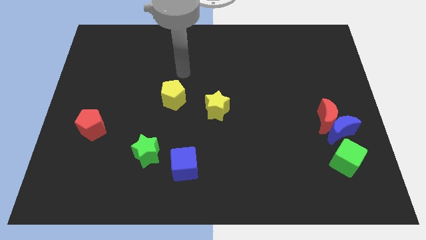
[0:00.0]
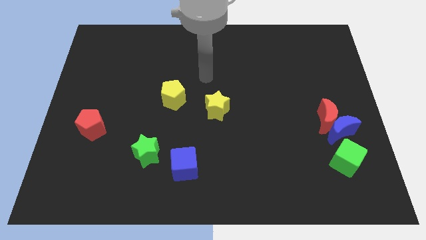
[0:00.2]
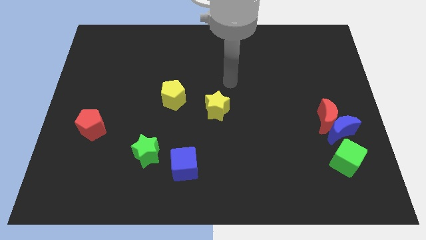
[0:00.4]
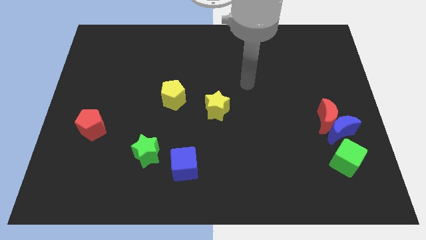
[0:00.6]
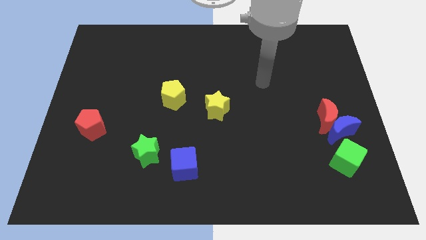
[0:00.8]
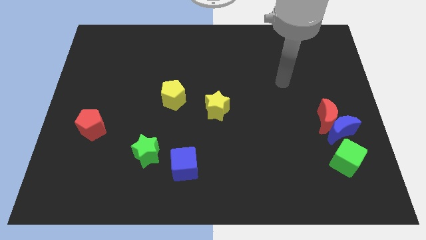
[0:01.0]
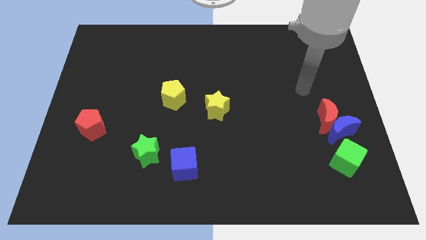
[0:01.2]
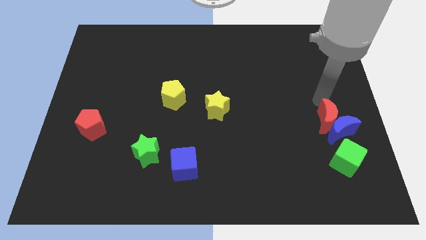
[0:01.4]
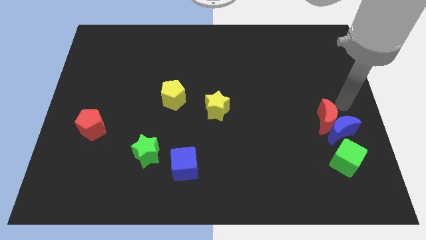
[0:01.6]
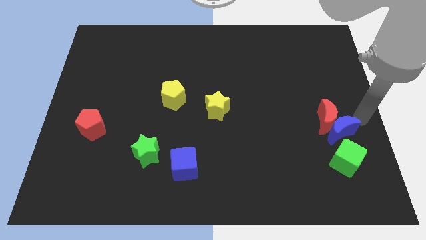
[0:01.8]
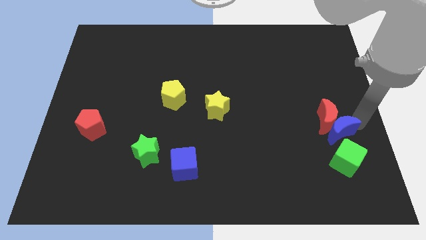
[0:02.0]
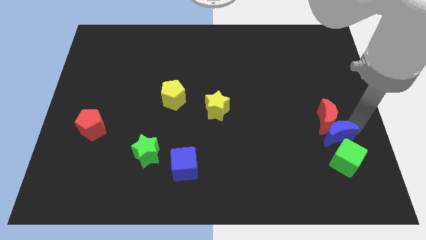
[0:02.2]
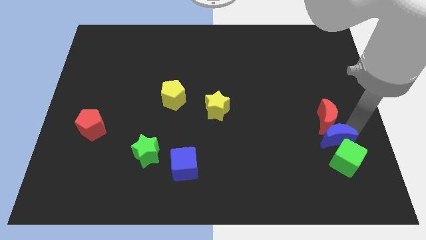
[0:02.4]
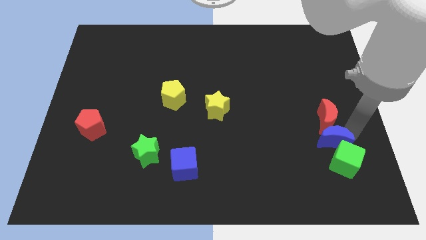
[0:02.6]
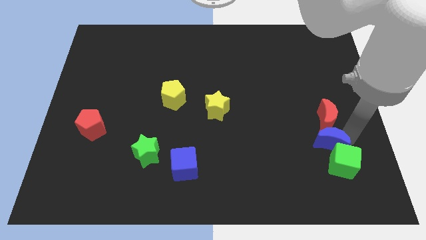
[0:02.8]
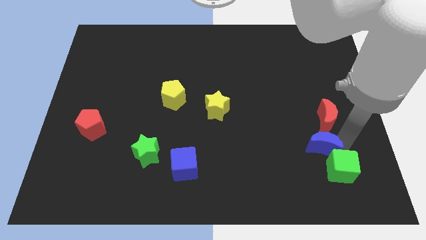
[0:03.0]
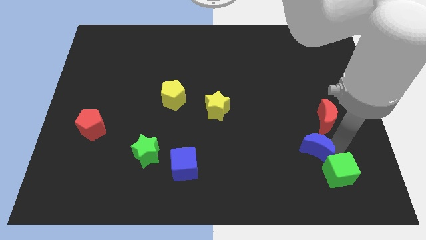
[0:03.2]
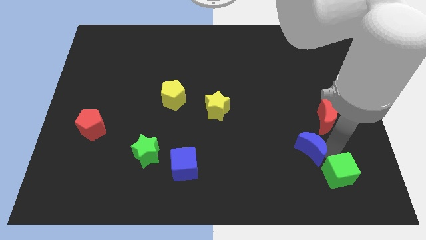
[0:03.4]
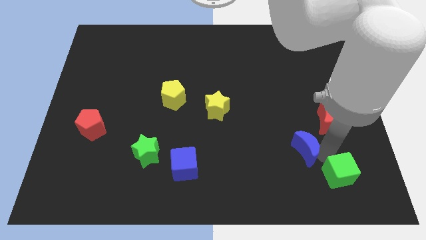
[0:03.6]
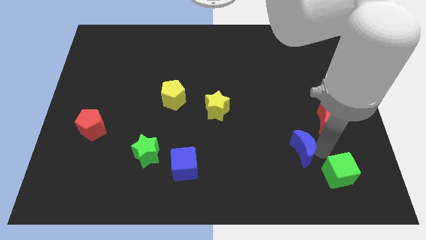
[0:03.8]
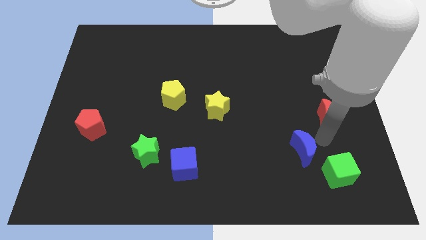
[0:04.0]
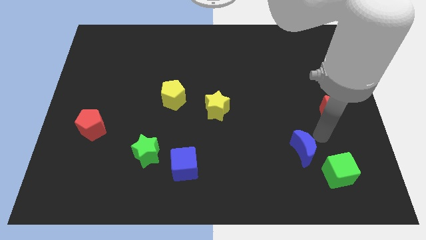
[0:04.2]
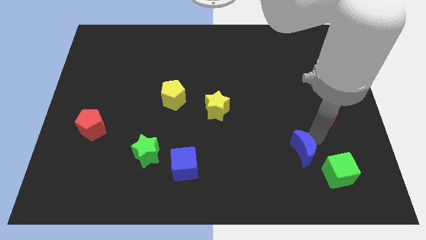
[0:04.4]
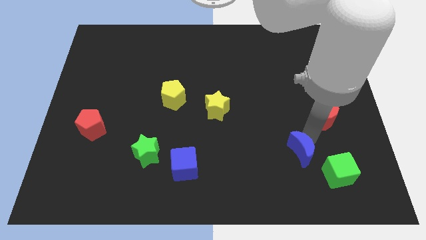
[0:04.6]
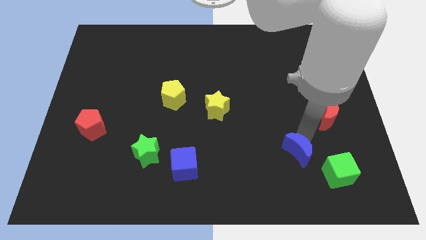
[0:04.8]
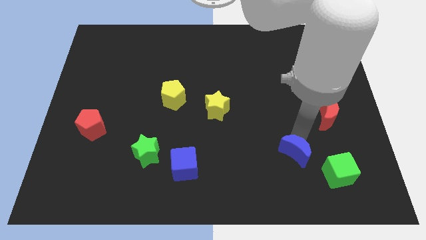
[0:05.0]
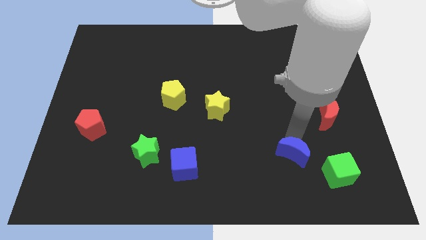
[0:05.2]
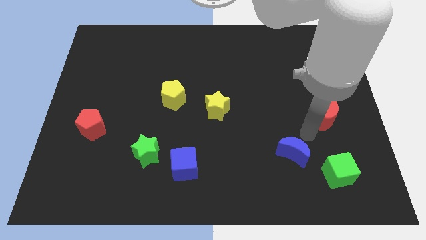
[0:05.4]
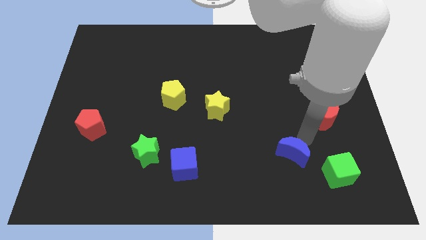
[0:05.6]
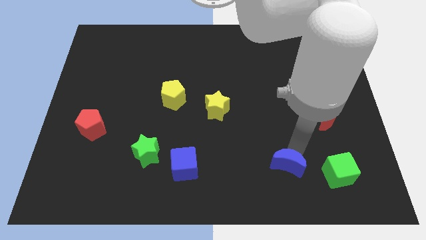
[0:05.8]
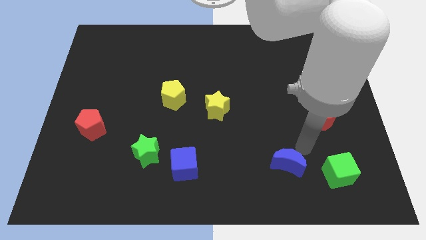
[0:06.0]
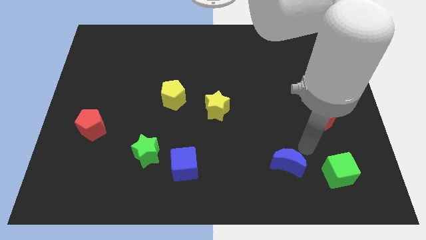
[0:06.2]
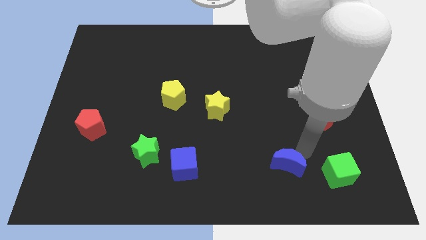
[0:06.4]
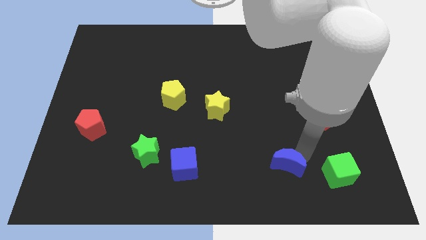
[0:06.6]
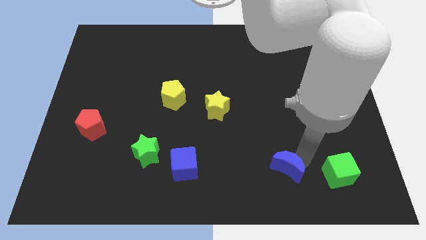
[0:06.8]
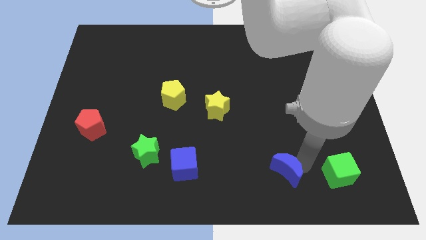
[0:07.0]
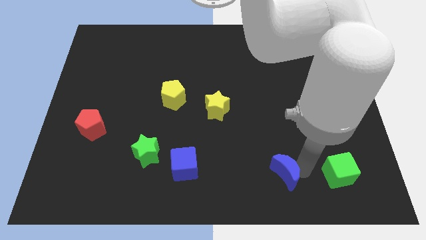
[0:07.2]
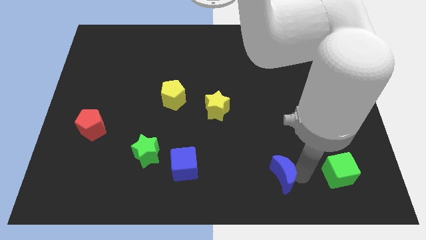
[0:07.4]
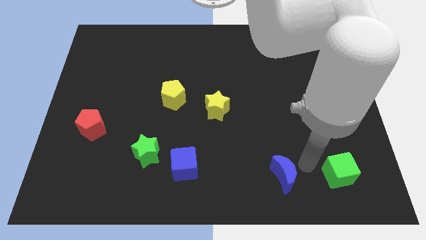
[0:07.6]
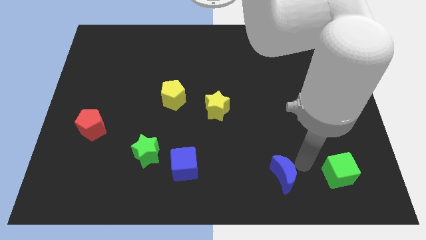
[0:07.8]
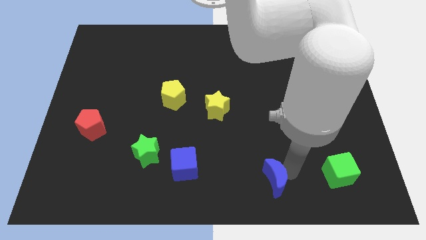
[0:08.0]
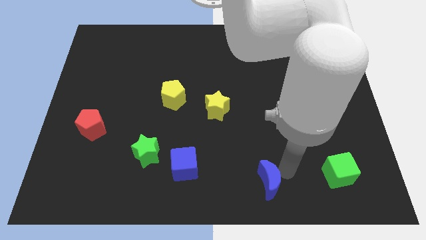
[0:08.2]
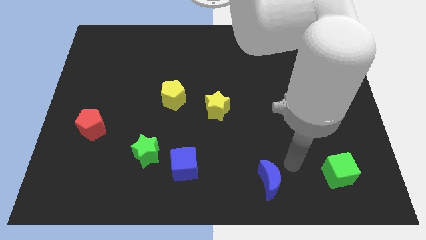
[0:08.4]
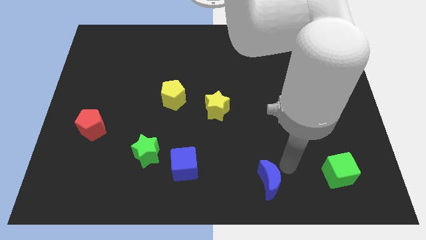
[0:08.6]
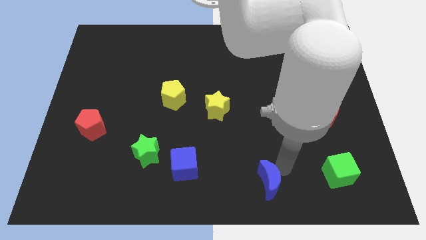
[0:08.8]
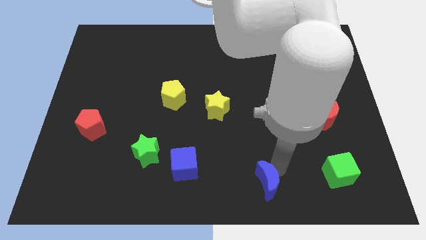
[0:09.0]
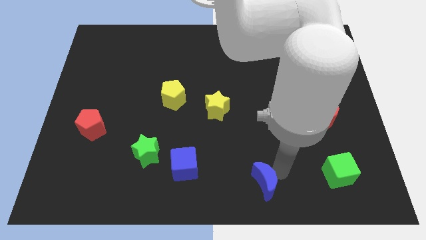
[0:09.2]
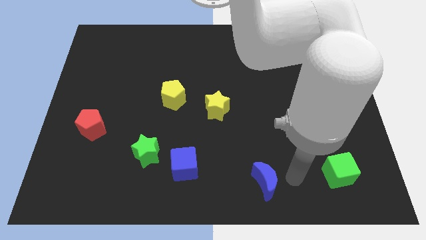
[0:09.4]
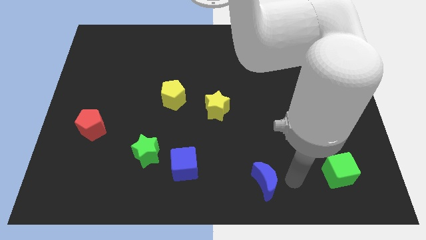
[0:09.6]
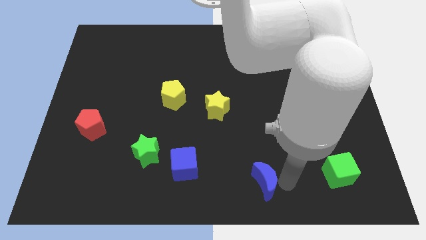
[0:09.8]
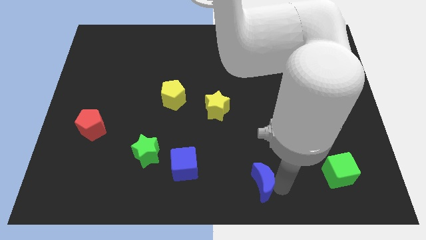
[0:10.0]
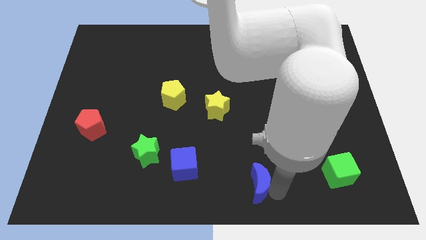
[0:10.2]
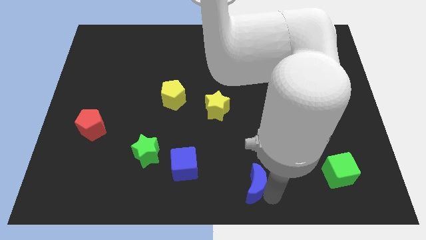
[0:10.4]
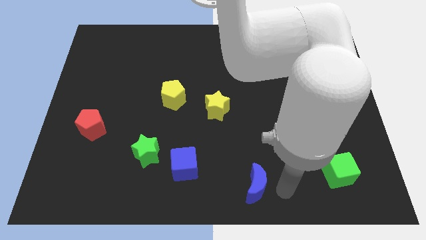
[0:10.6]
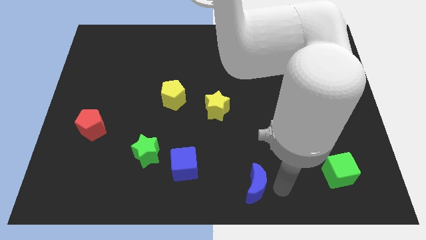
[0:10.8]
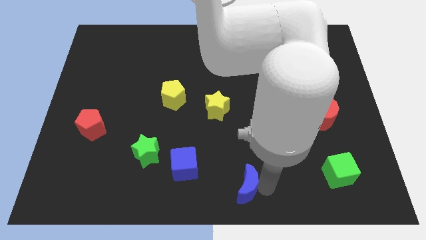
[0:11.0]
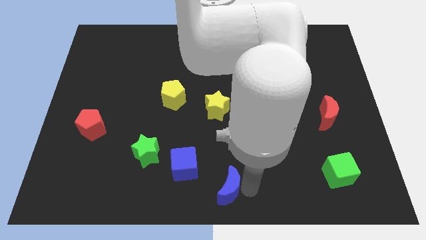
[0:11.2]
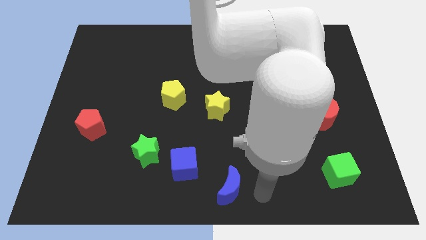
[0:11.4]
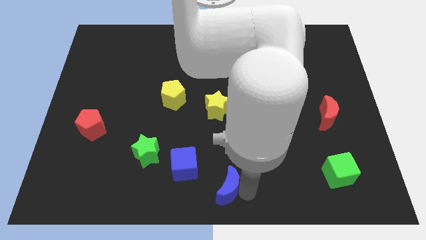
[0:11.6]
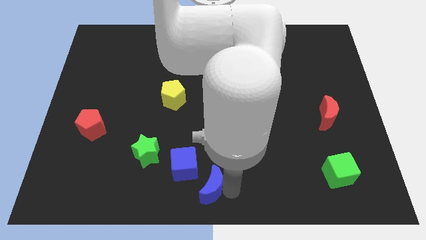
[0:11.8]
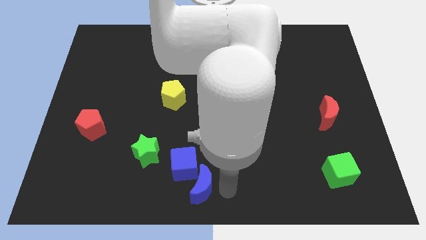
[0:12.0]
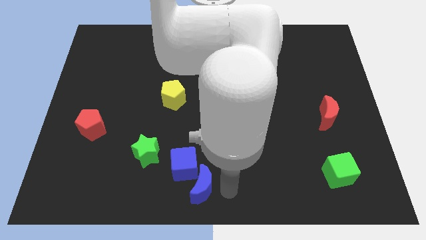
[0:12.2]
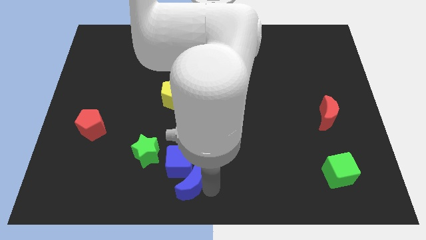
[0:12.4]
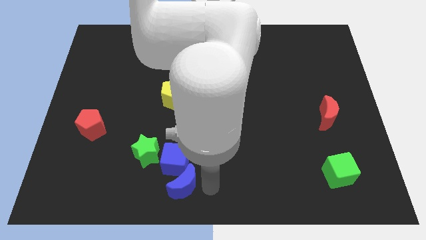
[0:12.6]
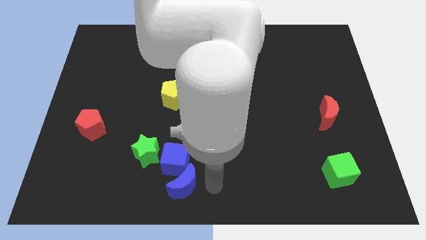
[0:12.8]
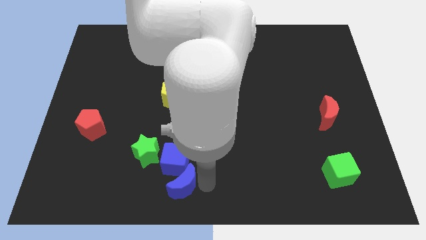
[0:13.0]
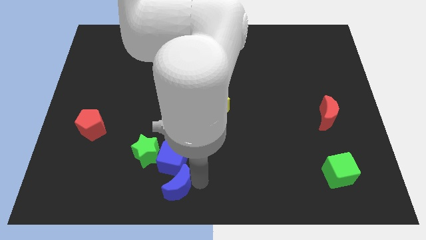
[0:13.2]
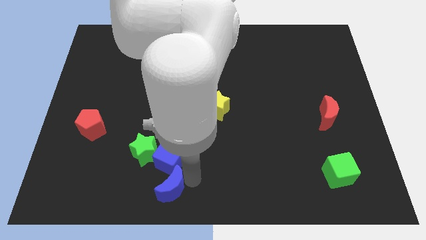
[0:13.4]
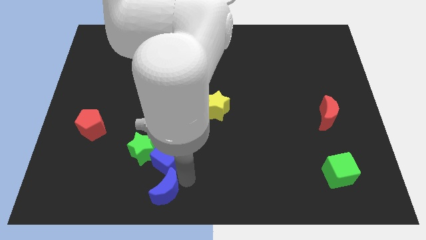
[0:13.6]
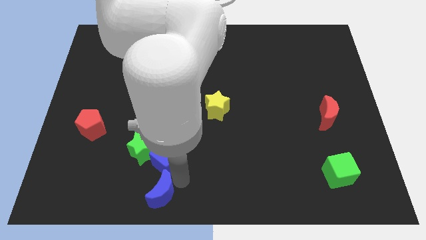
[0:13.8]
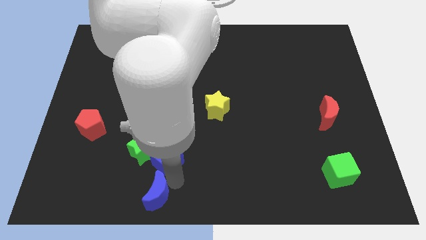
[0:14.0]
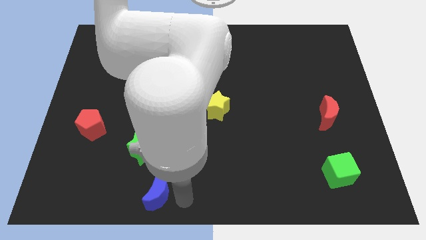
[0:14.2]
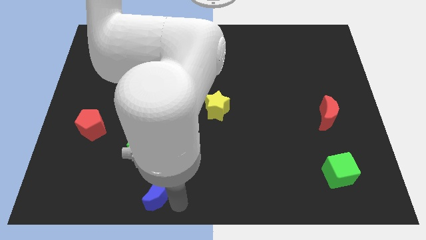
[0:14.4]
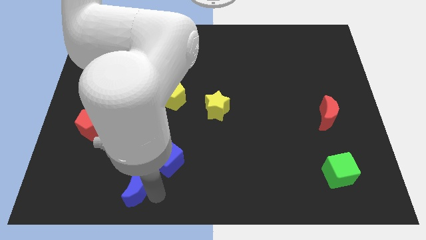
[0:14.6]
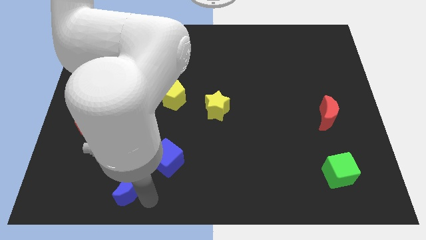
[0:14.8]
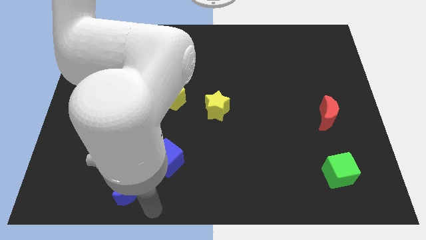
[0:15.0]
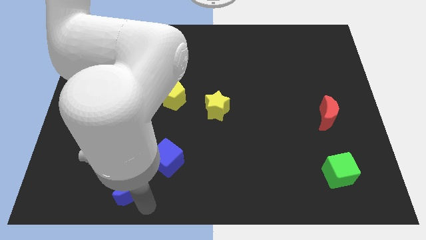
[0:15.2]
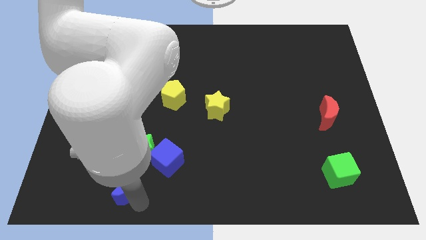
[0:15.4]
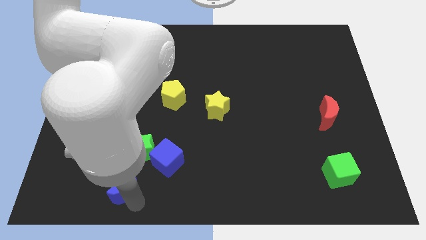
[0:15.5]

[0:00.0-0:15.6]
put the blue moon diagonally down and to the left of the green star
